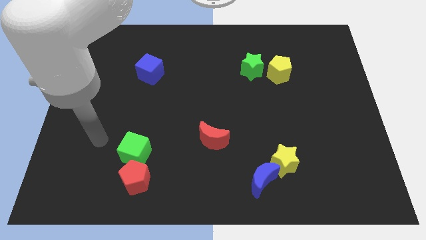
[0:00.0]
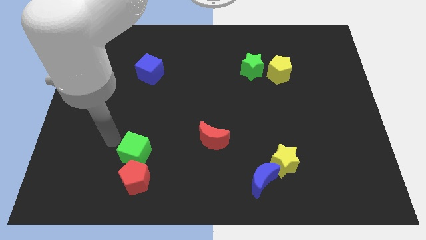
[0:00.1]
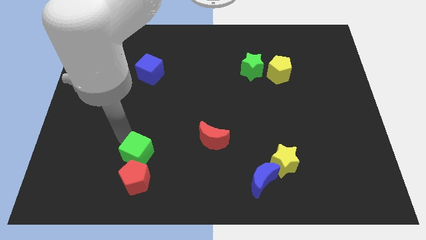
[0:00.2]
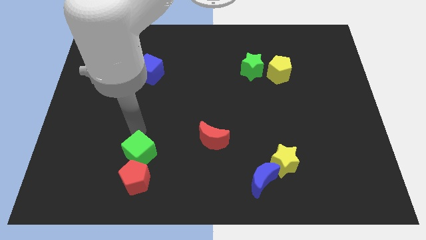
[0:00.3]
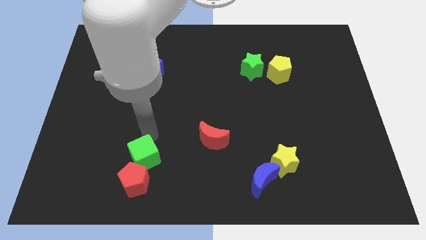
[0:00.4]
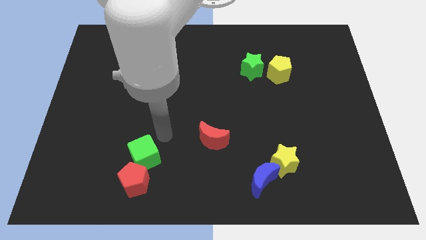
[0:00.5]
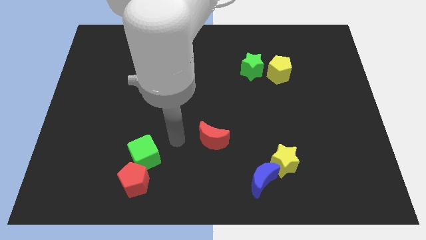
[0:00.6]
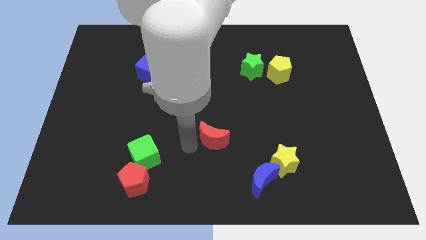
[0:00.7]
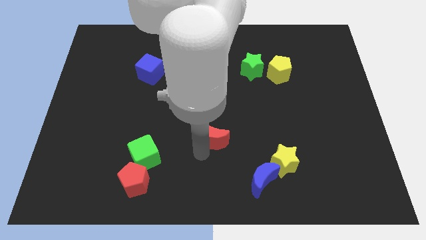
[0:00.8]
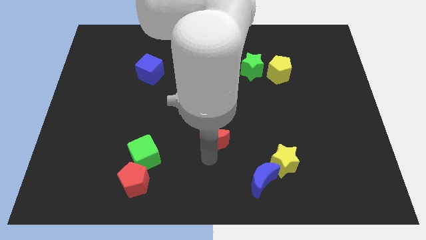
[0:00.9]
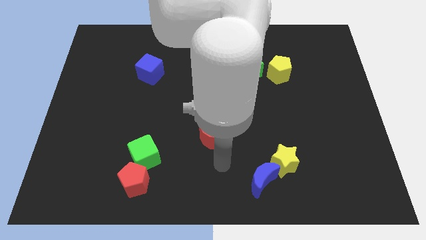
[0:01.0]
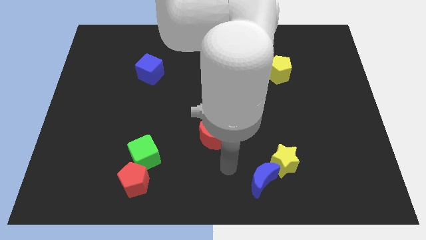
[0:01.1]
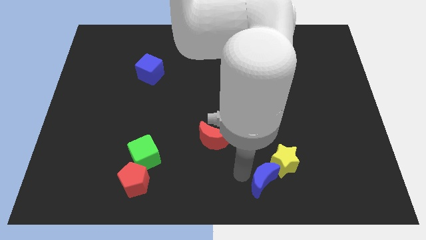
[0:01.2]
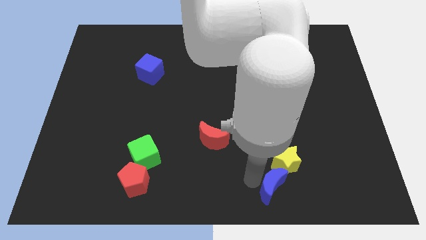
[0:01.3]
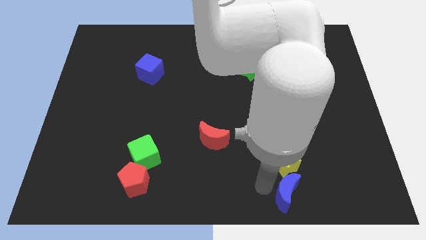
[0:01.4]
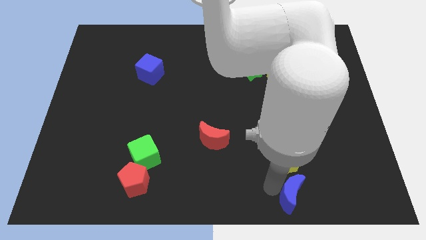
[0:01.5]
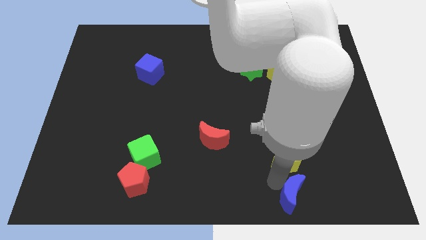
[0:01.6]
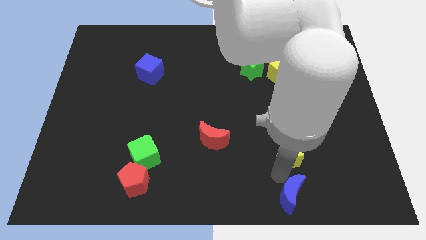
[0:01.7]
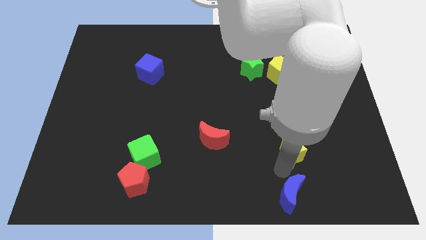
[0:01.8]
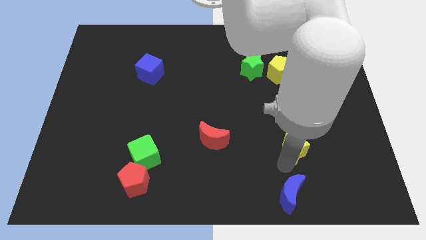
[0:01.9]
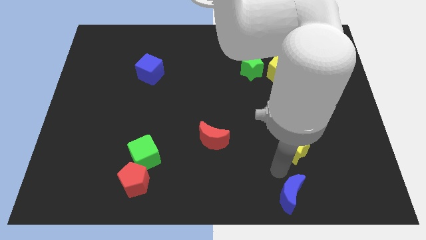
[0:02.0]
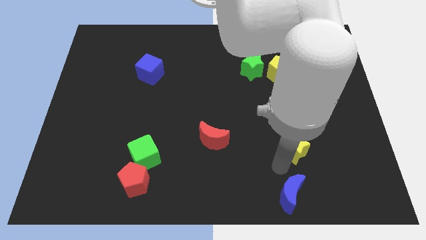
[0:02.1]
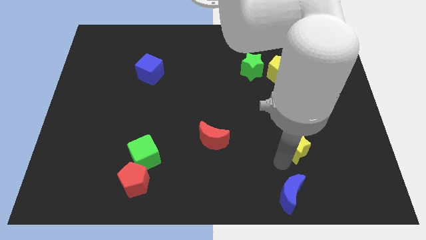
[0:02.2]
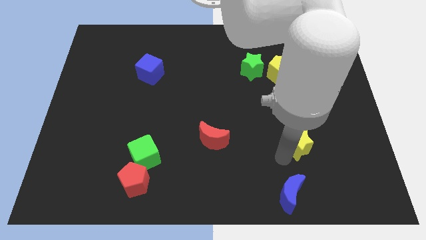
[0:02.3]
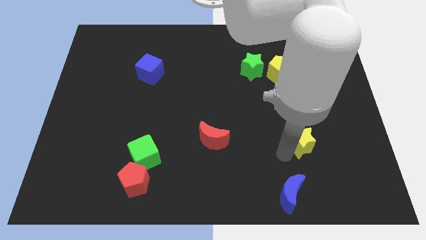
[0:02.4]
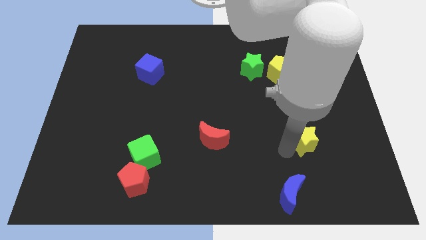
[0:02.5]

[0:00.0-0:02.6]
move the yellow star upwards and to the right a little bit

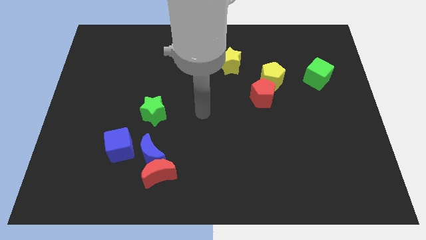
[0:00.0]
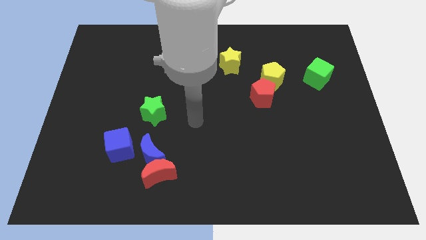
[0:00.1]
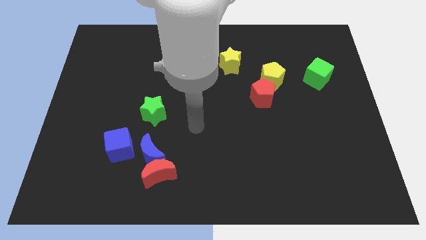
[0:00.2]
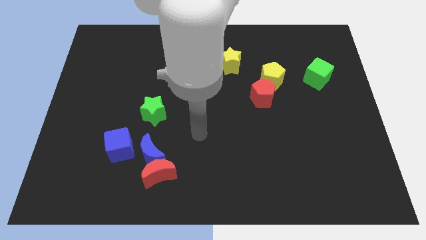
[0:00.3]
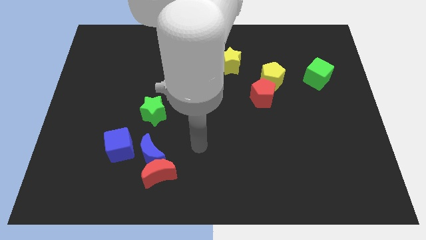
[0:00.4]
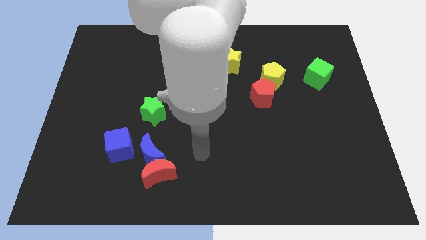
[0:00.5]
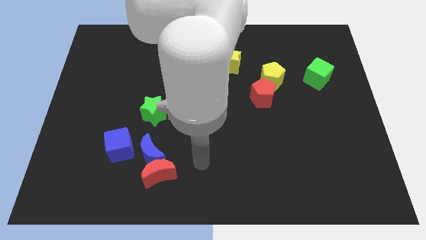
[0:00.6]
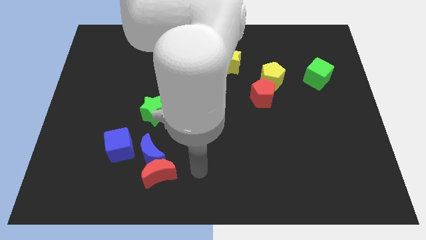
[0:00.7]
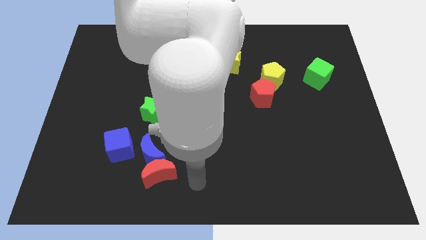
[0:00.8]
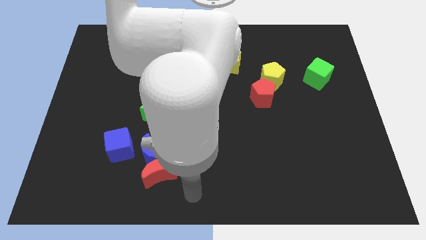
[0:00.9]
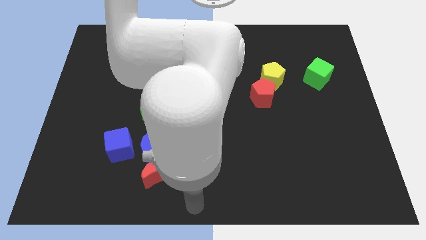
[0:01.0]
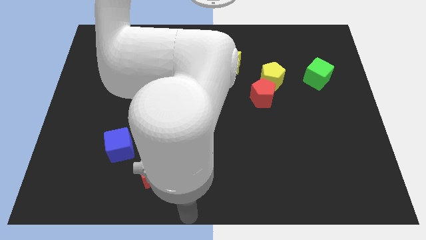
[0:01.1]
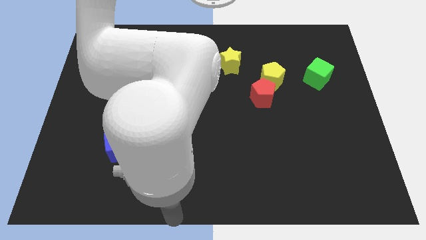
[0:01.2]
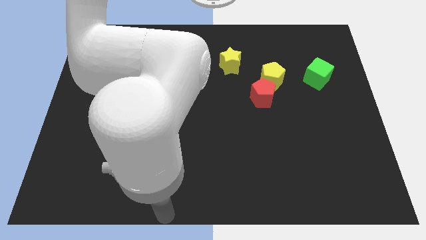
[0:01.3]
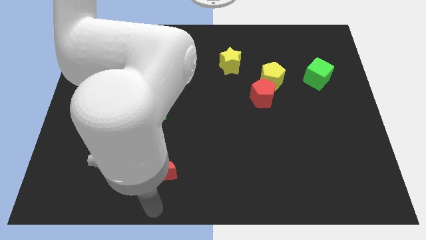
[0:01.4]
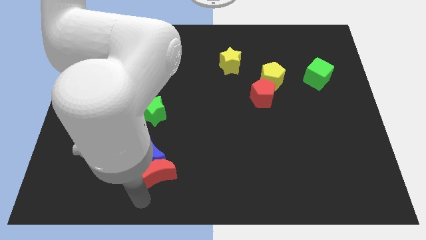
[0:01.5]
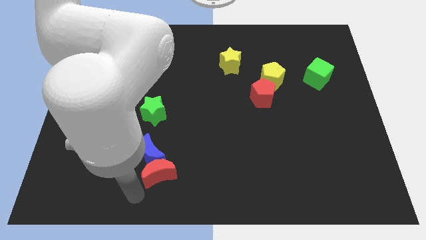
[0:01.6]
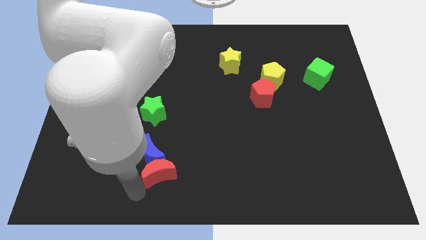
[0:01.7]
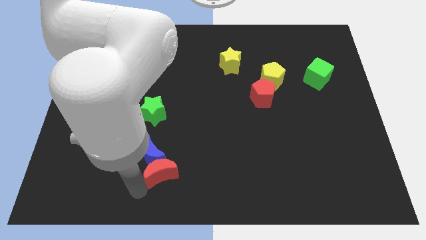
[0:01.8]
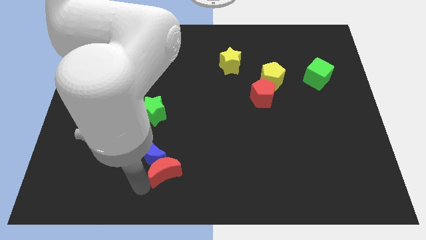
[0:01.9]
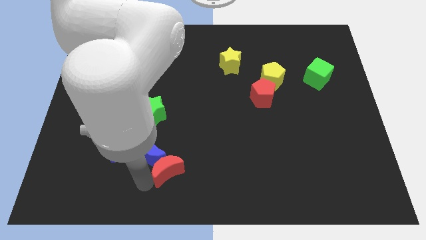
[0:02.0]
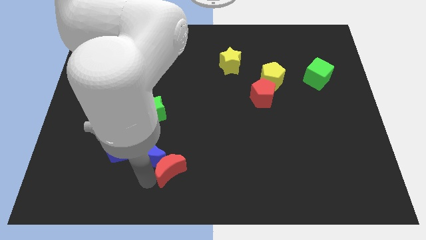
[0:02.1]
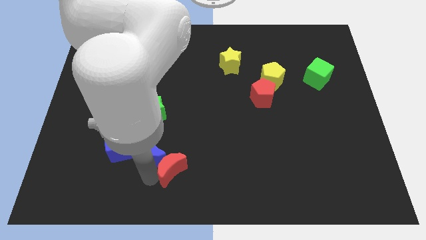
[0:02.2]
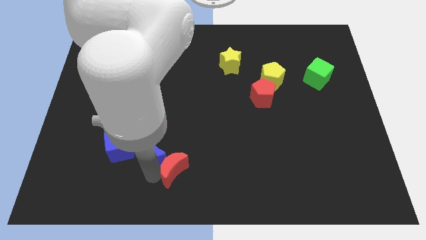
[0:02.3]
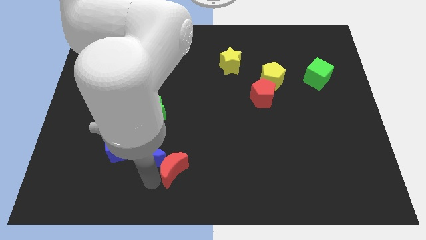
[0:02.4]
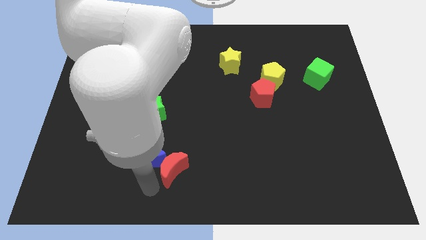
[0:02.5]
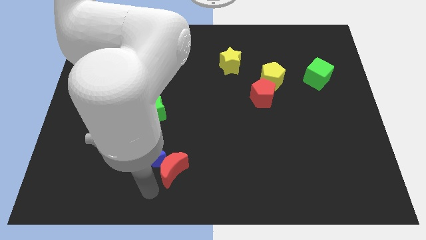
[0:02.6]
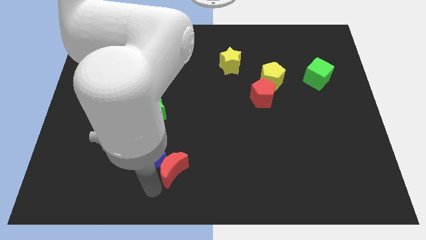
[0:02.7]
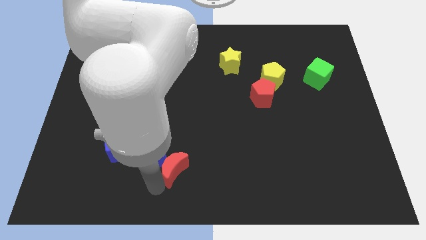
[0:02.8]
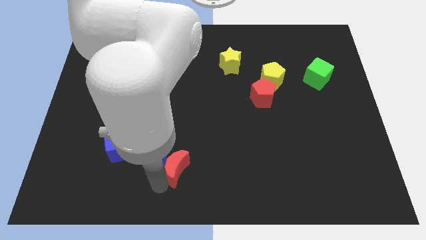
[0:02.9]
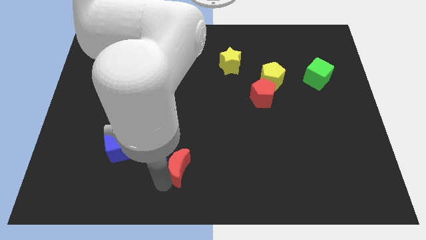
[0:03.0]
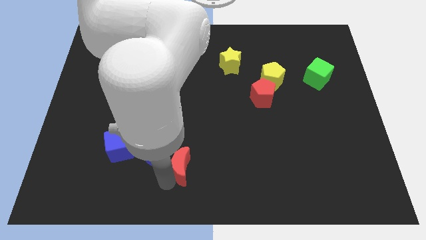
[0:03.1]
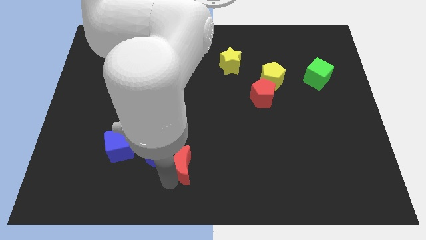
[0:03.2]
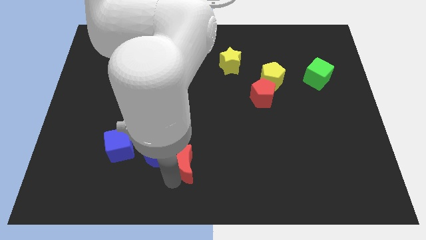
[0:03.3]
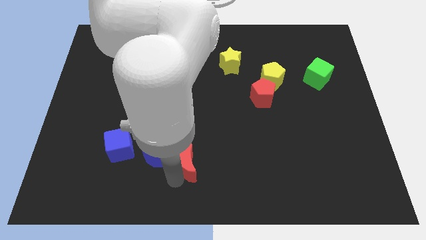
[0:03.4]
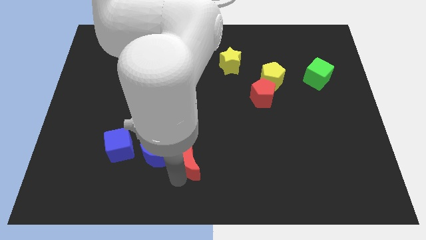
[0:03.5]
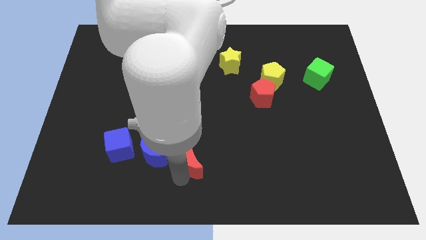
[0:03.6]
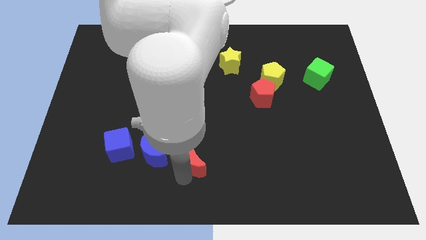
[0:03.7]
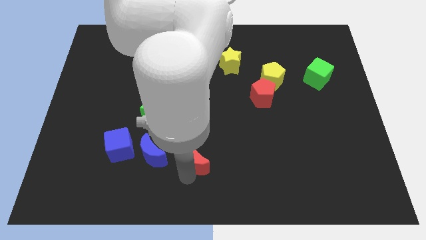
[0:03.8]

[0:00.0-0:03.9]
slide the red moon slightly up and to the right

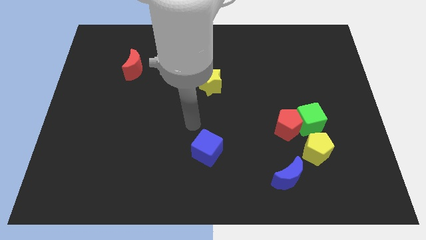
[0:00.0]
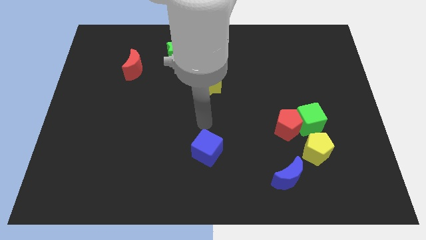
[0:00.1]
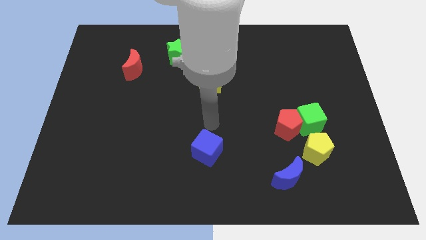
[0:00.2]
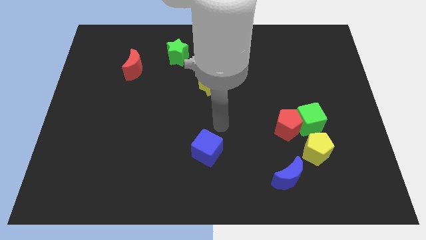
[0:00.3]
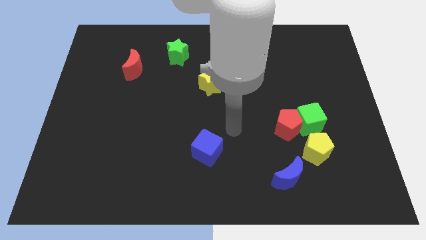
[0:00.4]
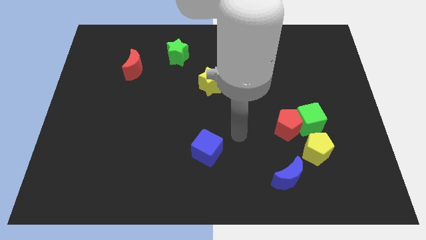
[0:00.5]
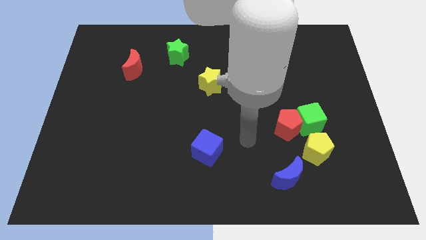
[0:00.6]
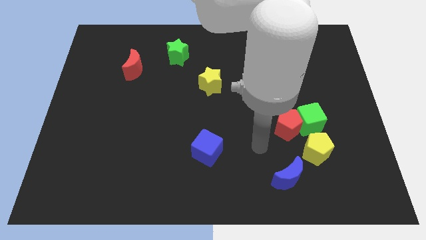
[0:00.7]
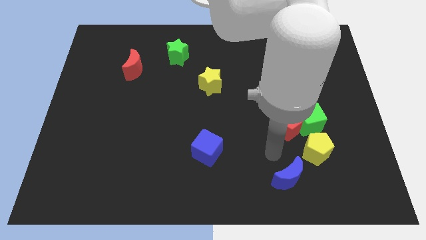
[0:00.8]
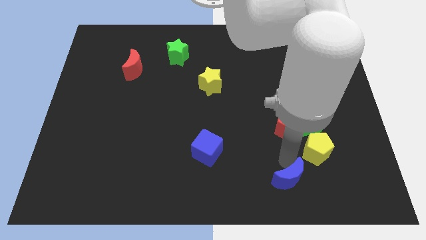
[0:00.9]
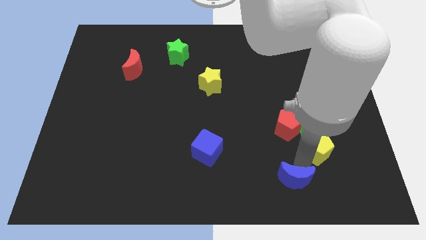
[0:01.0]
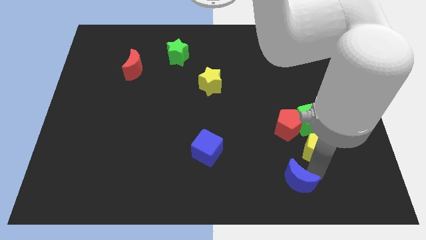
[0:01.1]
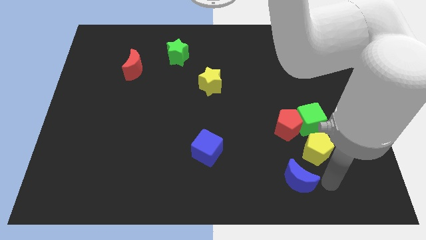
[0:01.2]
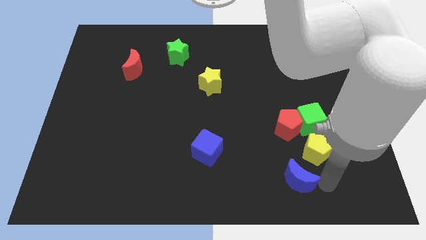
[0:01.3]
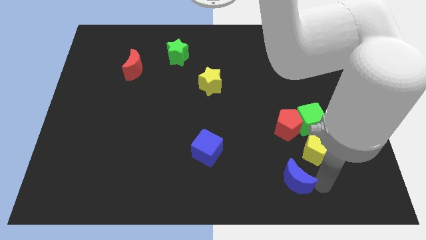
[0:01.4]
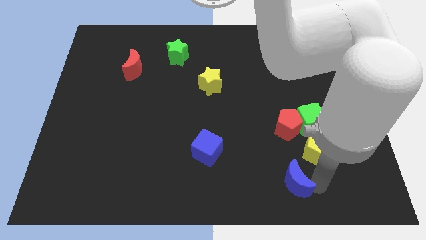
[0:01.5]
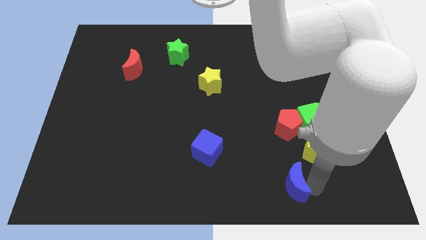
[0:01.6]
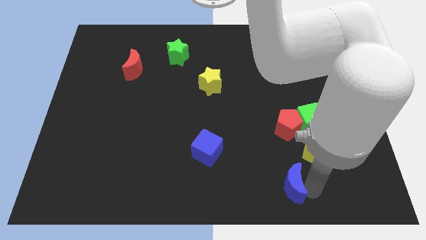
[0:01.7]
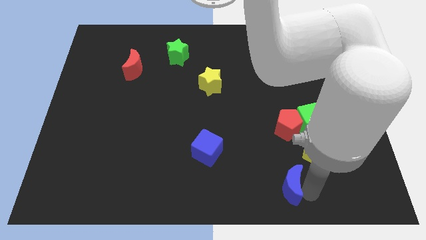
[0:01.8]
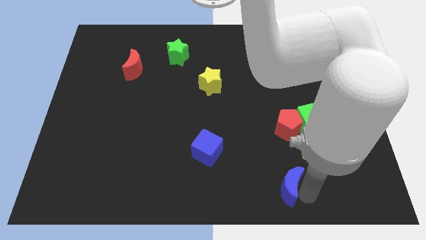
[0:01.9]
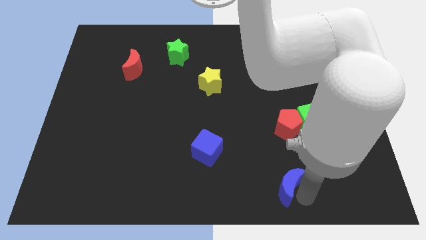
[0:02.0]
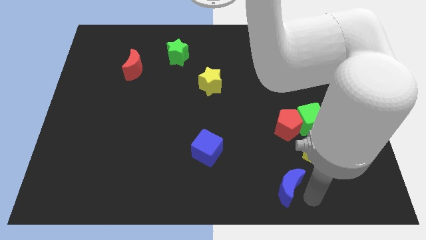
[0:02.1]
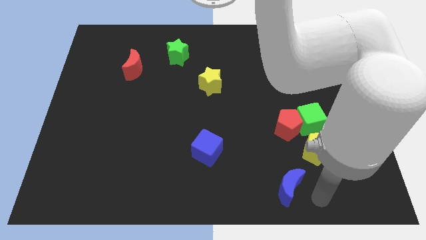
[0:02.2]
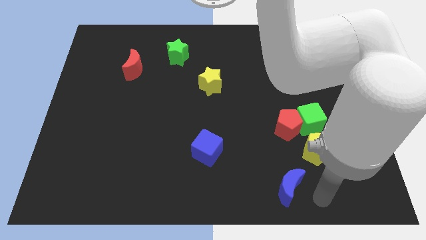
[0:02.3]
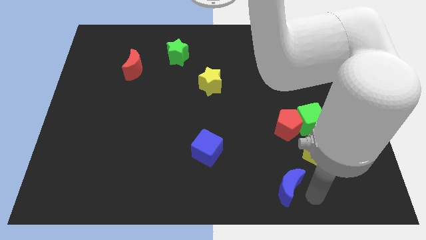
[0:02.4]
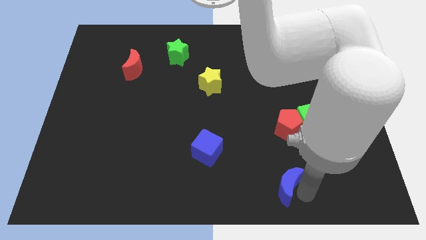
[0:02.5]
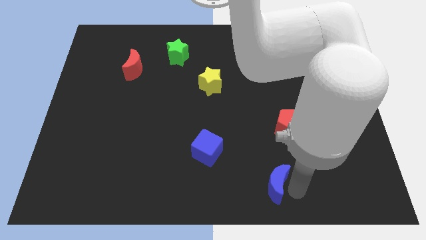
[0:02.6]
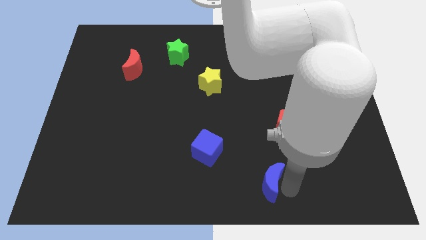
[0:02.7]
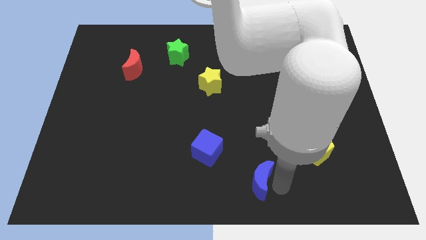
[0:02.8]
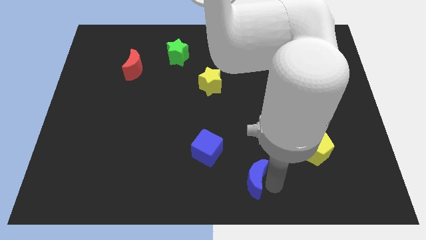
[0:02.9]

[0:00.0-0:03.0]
move the blue moon a bit left
